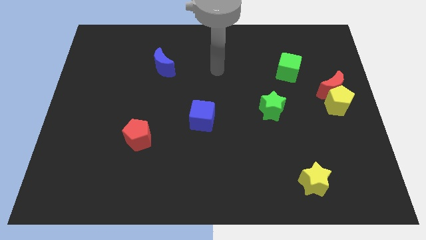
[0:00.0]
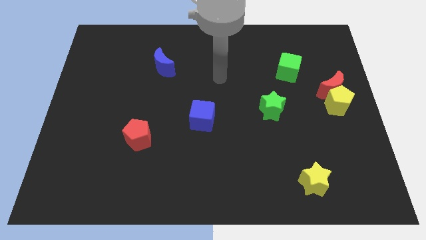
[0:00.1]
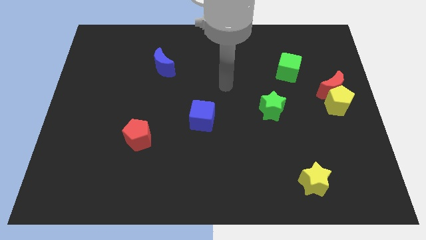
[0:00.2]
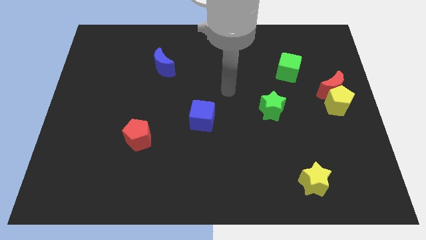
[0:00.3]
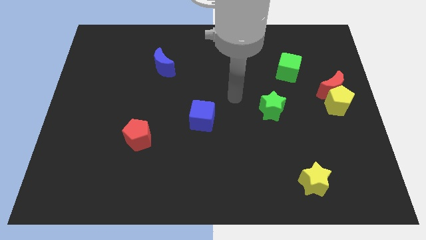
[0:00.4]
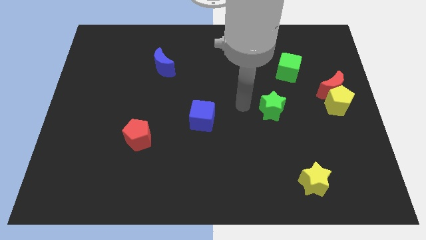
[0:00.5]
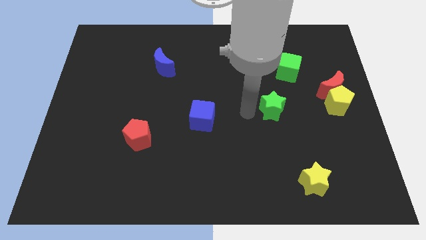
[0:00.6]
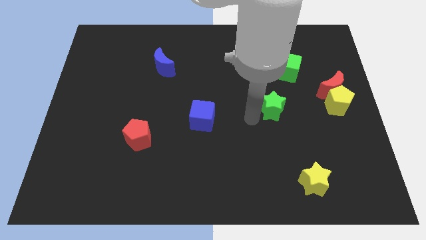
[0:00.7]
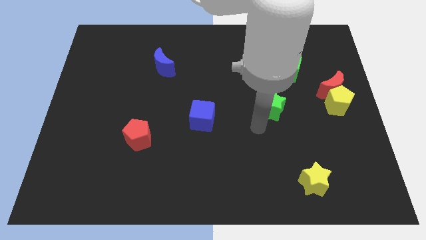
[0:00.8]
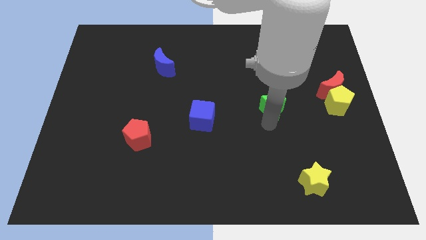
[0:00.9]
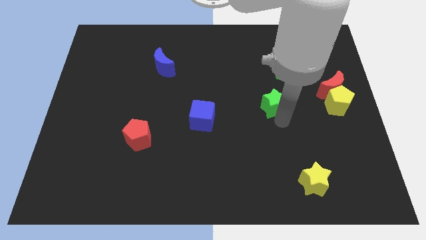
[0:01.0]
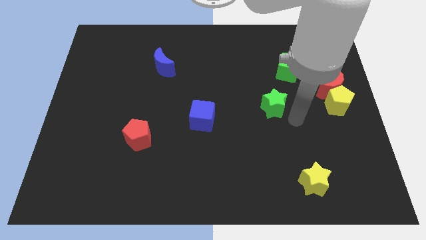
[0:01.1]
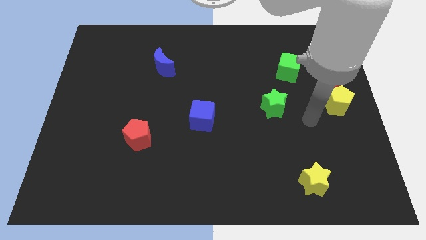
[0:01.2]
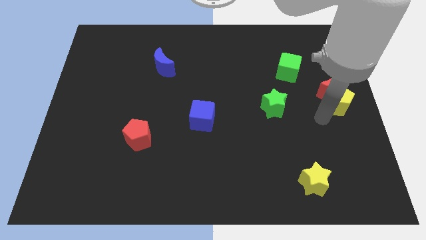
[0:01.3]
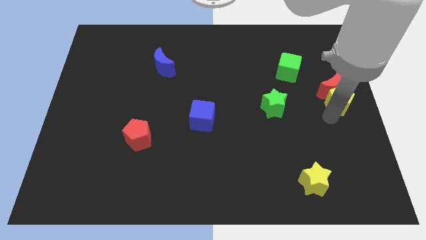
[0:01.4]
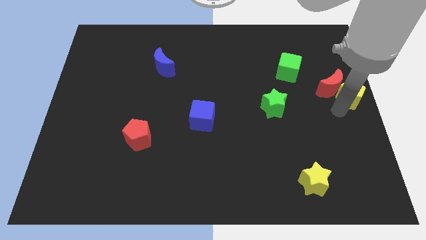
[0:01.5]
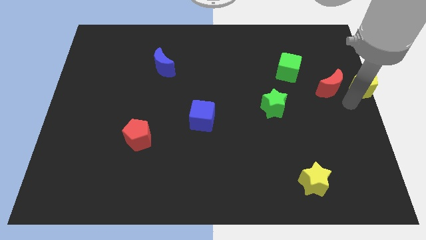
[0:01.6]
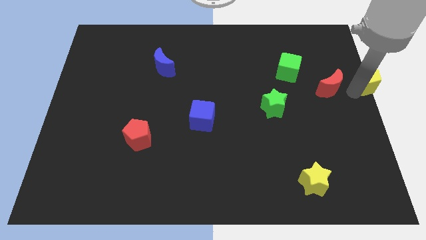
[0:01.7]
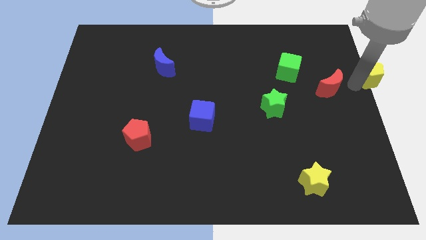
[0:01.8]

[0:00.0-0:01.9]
separate the red moon from the yellow pentagon

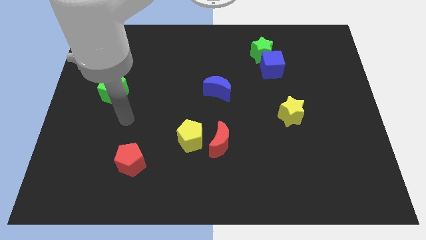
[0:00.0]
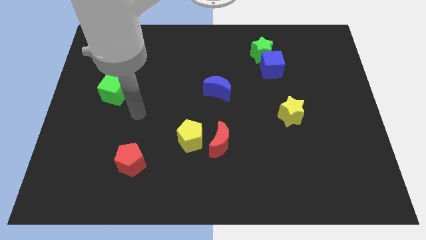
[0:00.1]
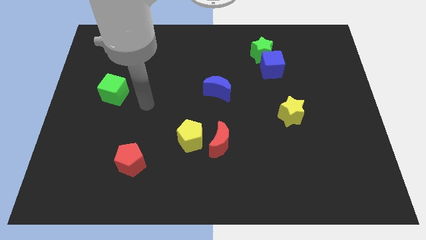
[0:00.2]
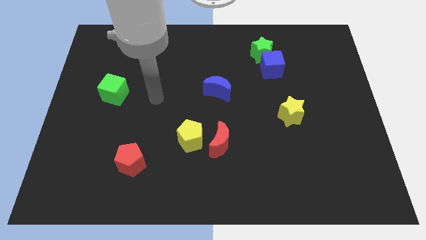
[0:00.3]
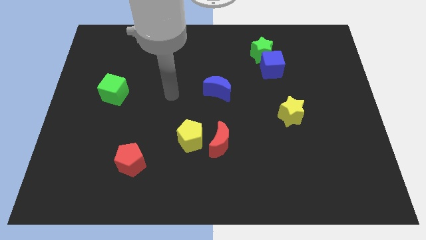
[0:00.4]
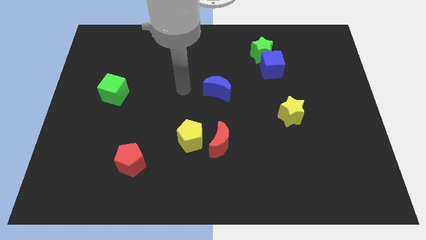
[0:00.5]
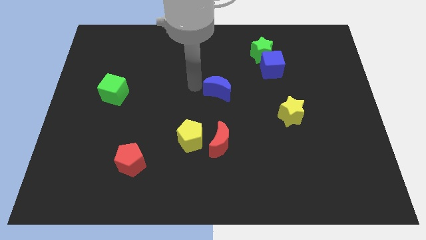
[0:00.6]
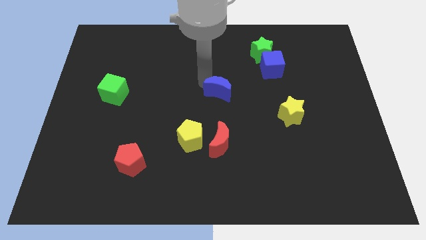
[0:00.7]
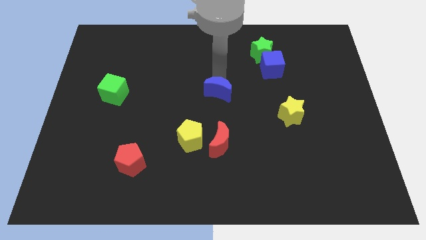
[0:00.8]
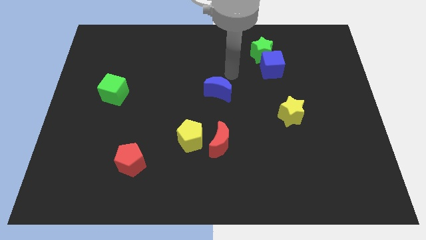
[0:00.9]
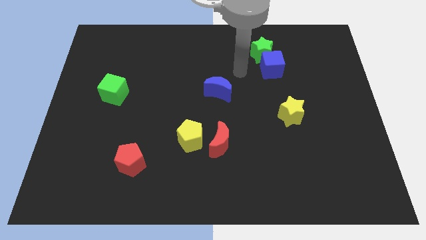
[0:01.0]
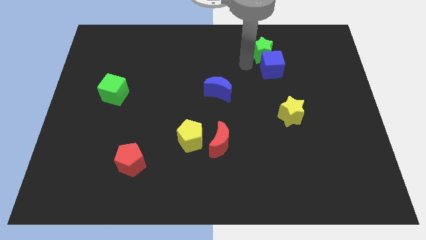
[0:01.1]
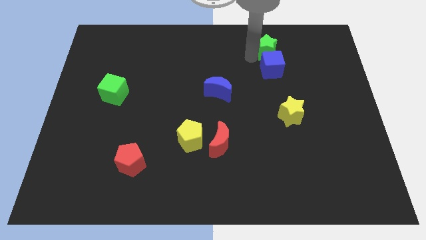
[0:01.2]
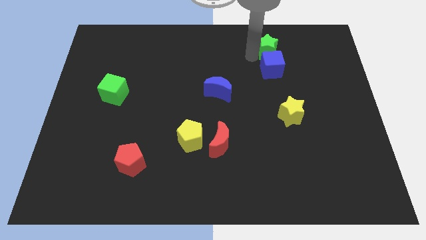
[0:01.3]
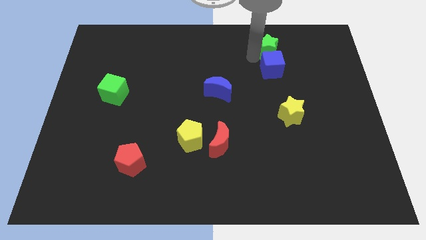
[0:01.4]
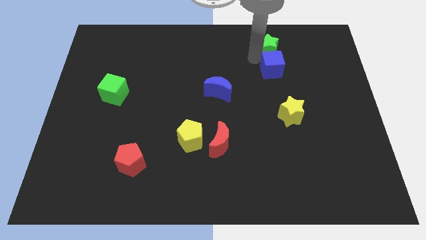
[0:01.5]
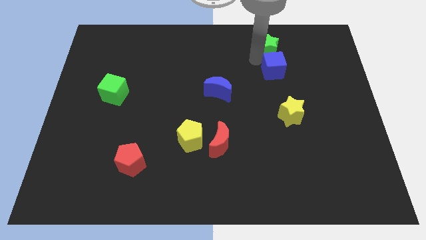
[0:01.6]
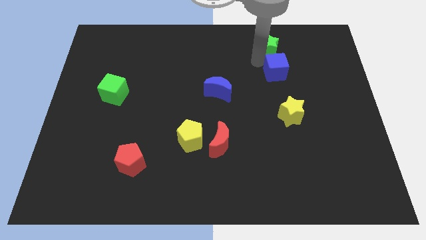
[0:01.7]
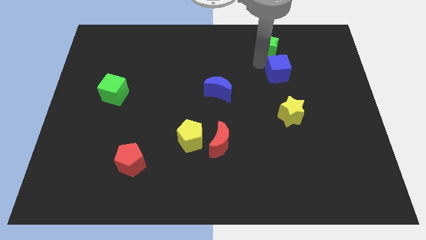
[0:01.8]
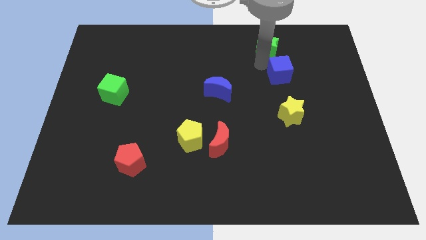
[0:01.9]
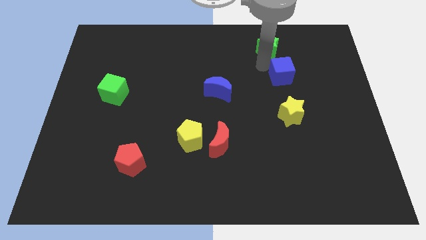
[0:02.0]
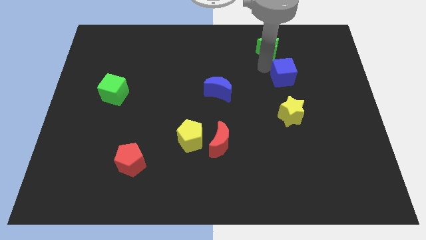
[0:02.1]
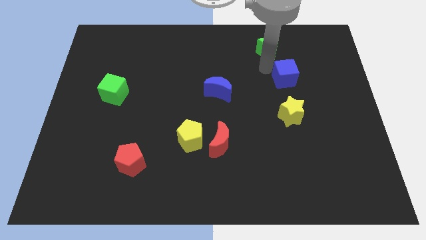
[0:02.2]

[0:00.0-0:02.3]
move the blue cube away from the green star

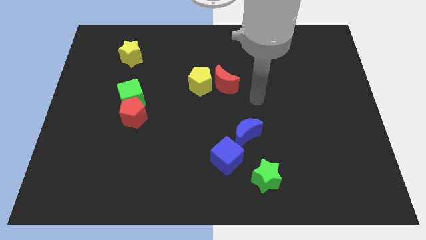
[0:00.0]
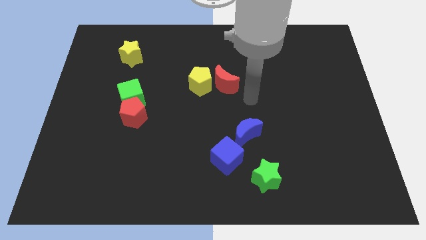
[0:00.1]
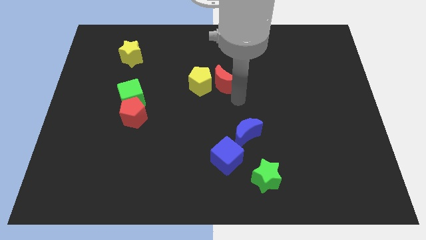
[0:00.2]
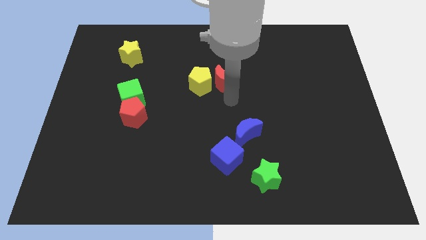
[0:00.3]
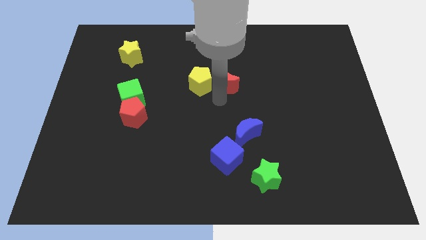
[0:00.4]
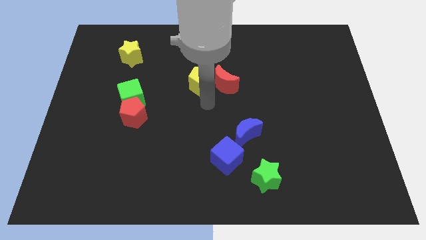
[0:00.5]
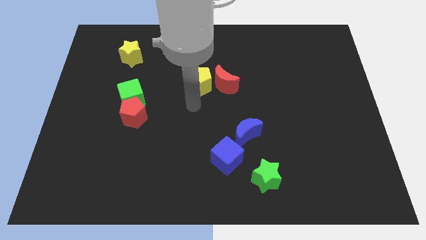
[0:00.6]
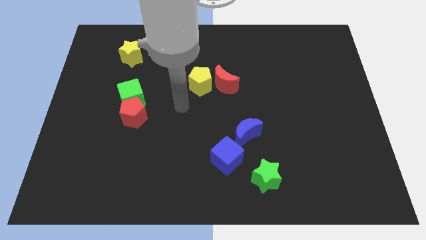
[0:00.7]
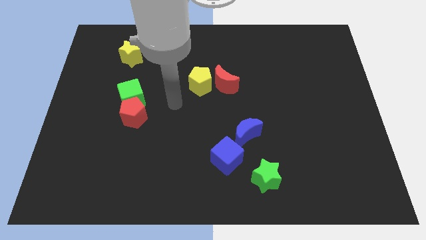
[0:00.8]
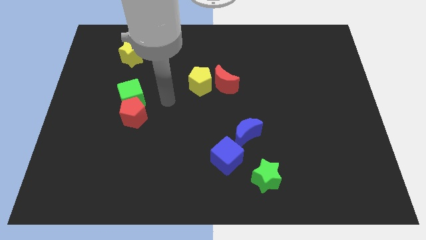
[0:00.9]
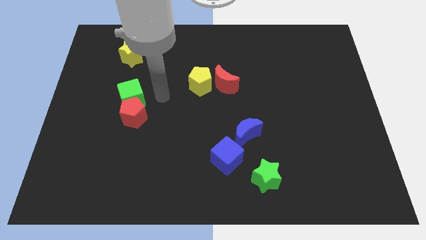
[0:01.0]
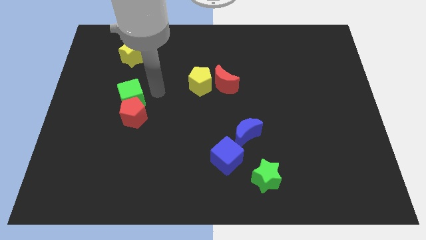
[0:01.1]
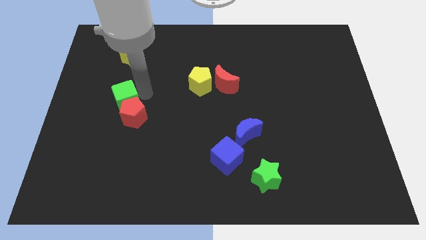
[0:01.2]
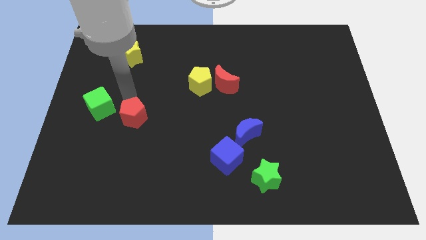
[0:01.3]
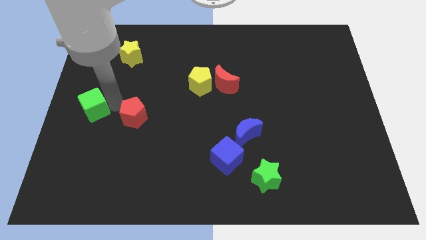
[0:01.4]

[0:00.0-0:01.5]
move the red pentagon away from the green cube

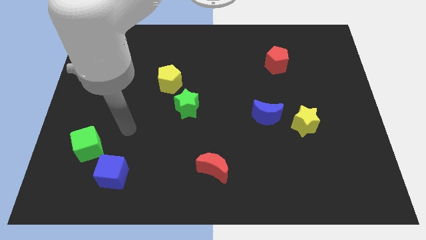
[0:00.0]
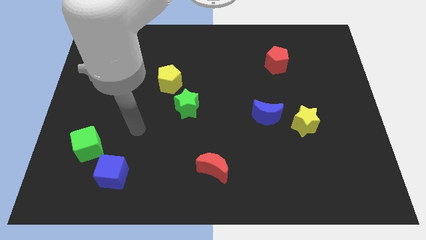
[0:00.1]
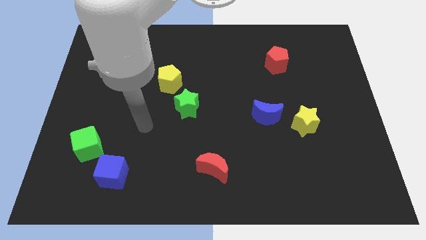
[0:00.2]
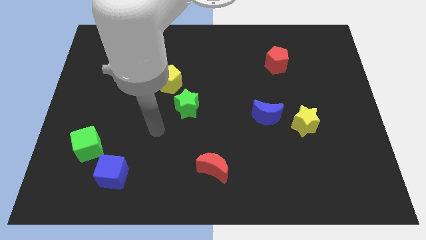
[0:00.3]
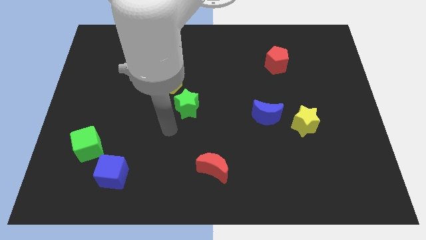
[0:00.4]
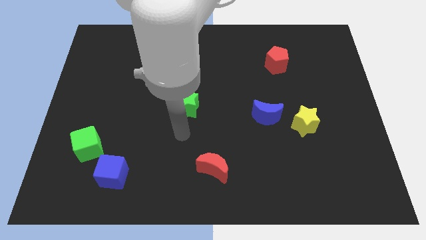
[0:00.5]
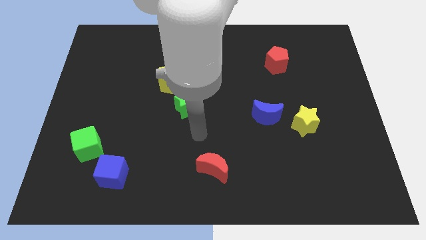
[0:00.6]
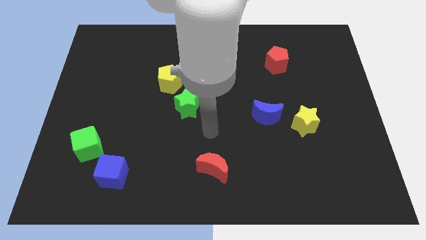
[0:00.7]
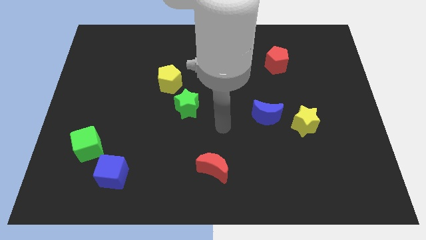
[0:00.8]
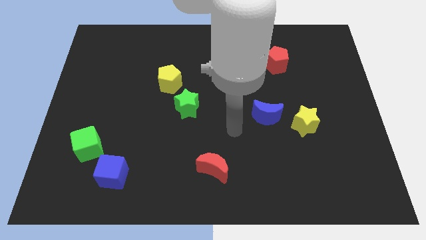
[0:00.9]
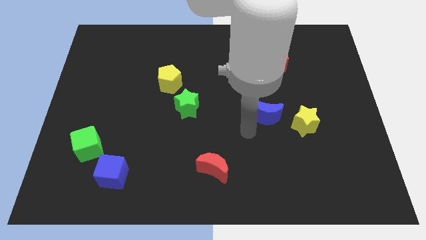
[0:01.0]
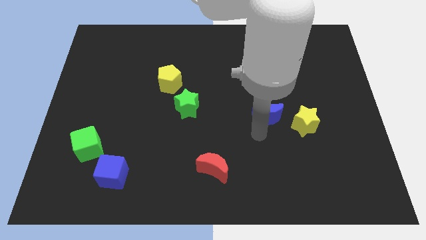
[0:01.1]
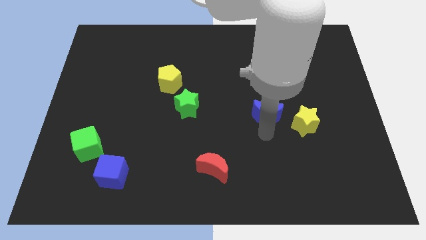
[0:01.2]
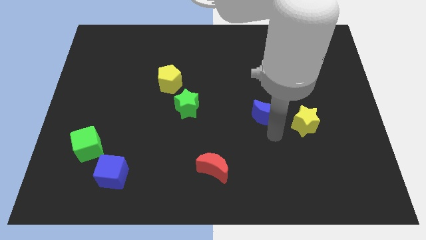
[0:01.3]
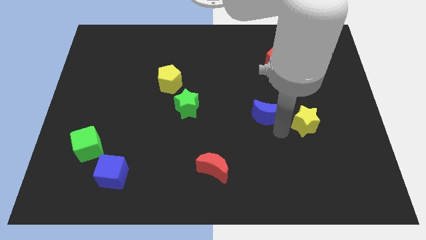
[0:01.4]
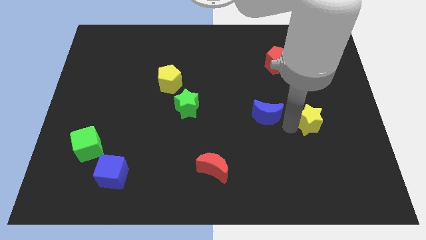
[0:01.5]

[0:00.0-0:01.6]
separate the blue moon from the yellow star

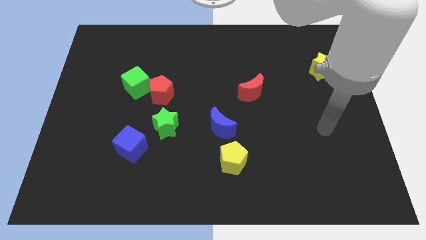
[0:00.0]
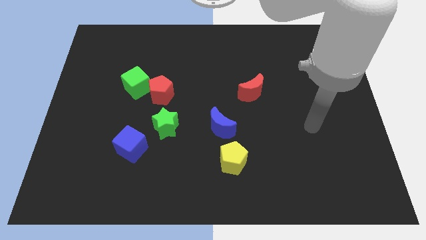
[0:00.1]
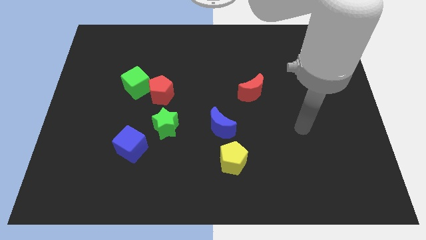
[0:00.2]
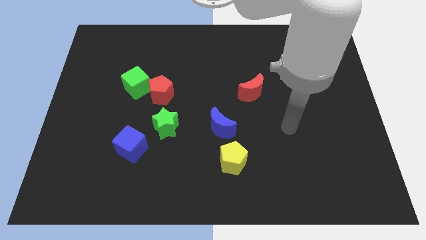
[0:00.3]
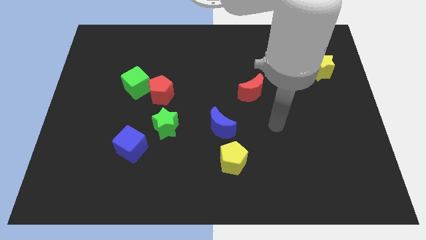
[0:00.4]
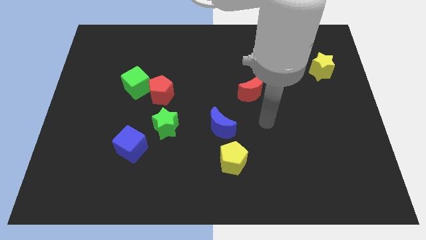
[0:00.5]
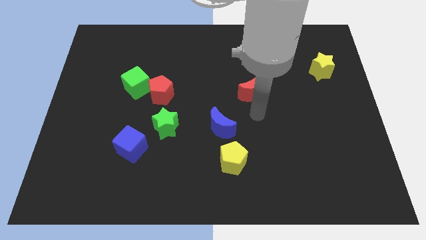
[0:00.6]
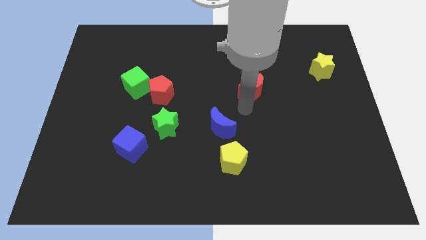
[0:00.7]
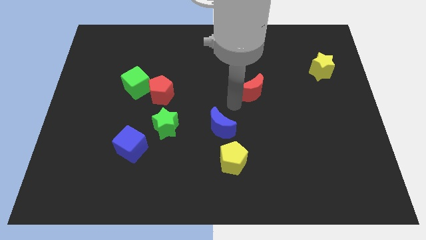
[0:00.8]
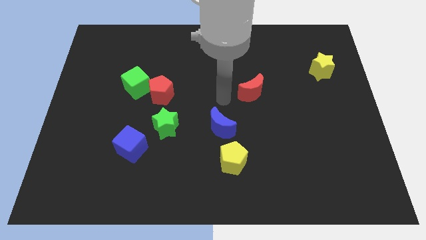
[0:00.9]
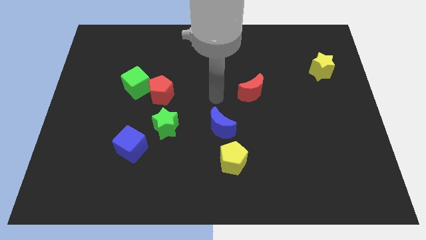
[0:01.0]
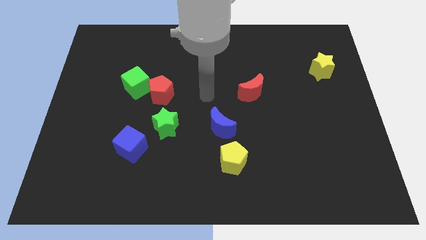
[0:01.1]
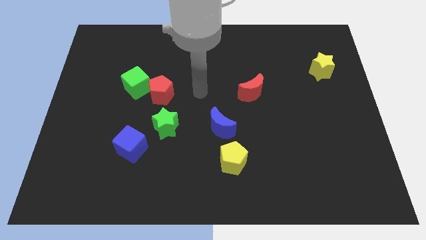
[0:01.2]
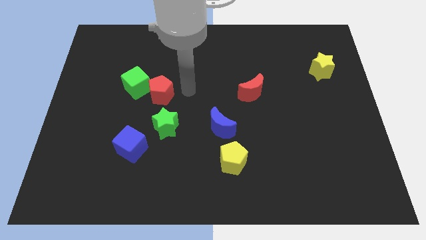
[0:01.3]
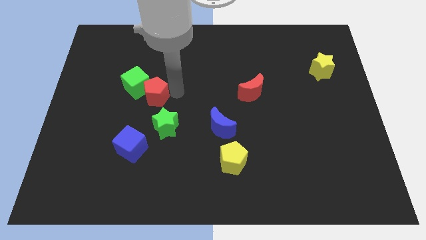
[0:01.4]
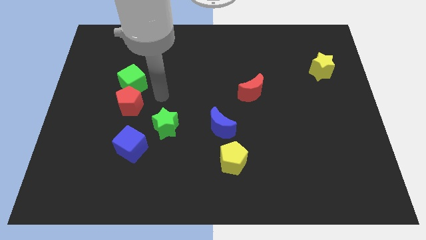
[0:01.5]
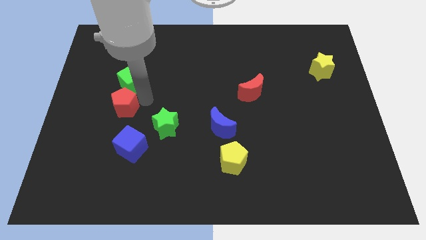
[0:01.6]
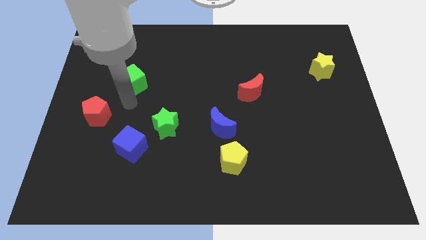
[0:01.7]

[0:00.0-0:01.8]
separate the green cube from the red pentagon

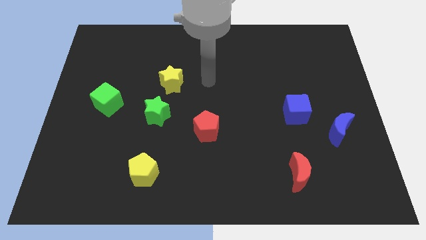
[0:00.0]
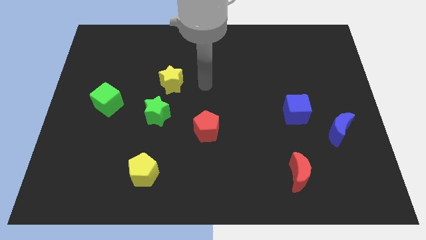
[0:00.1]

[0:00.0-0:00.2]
move the green star away from the yellow star
